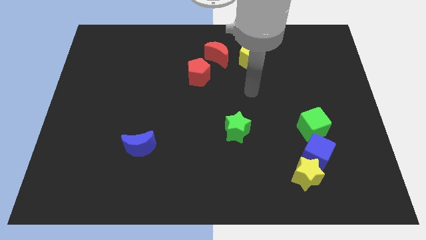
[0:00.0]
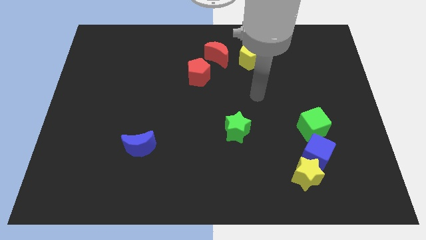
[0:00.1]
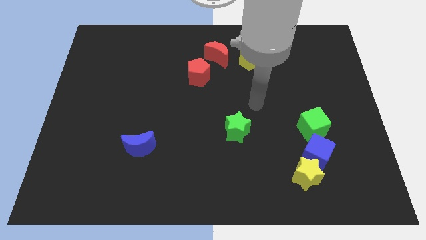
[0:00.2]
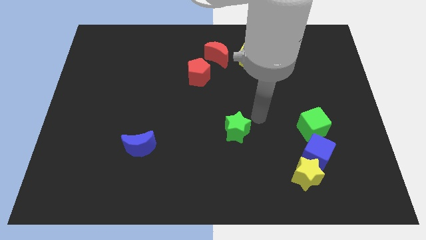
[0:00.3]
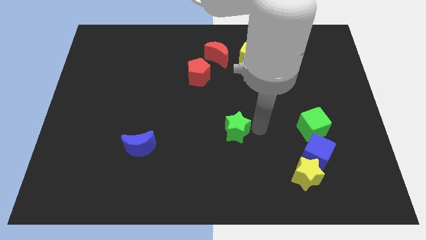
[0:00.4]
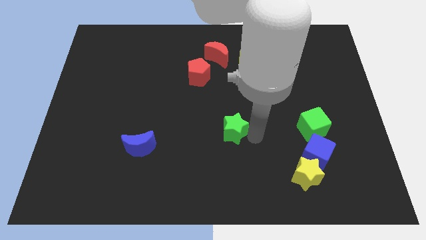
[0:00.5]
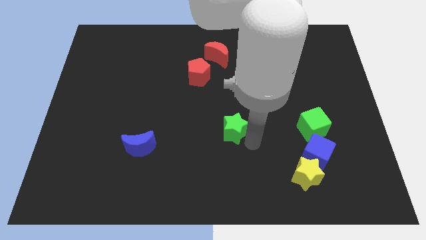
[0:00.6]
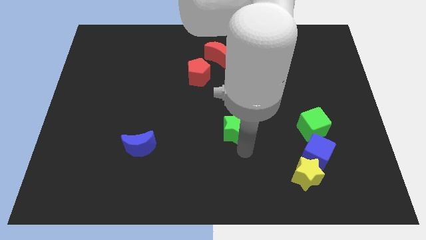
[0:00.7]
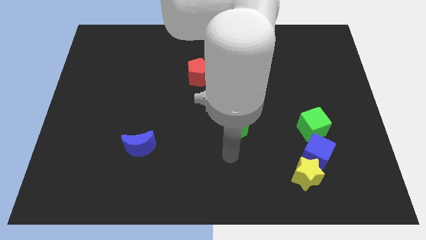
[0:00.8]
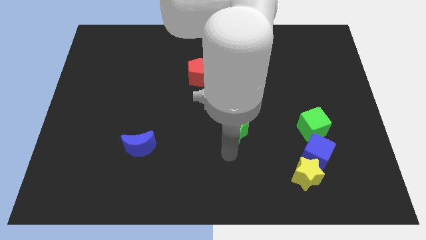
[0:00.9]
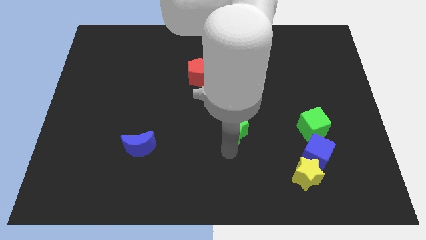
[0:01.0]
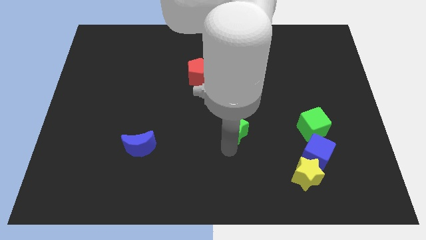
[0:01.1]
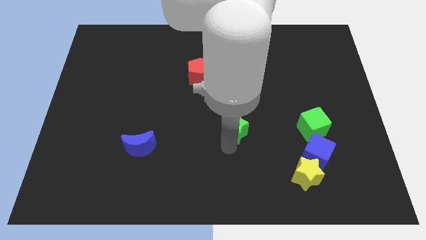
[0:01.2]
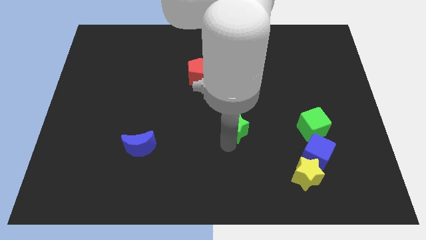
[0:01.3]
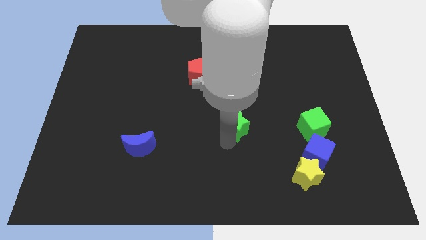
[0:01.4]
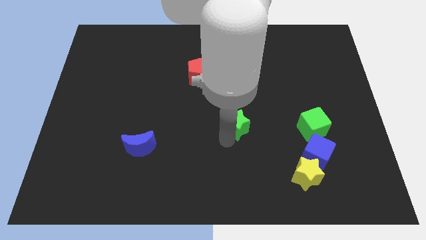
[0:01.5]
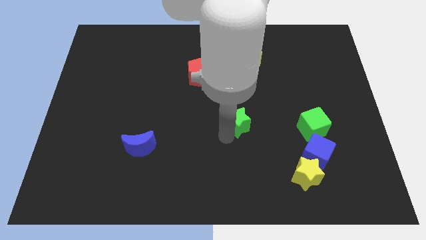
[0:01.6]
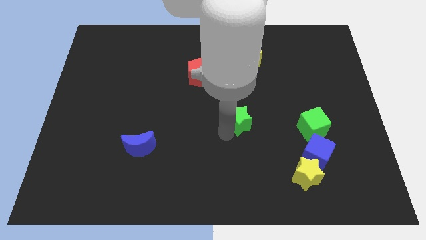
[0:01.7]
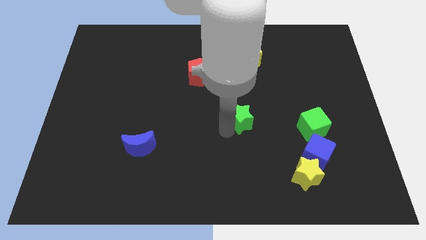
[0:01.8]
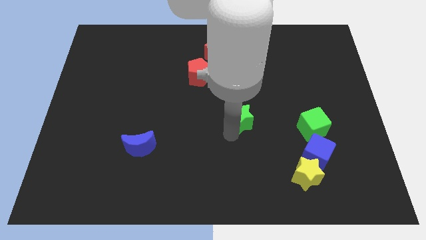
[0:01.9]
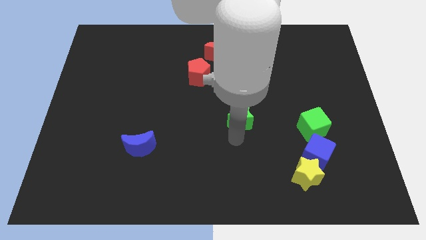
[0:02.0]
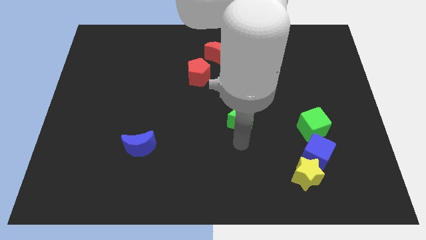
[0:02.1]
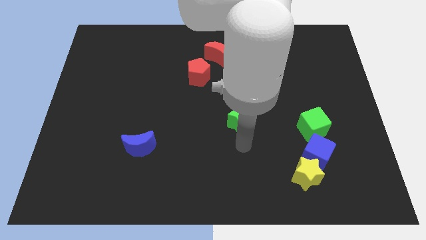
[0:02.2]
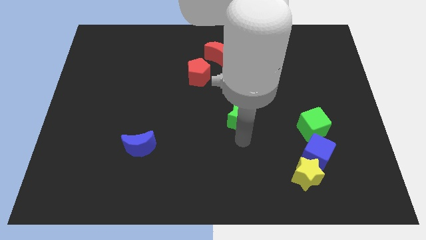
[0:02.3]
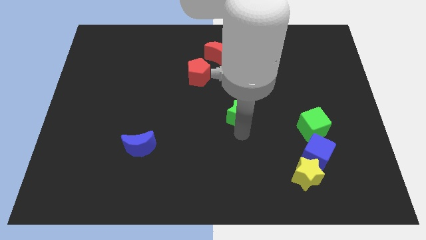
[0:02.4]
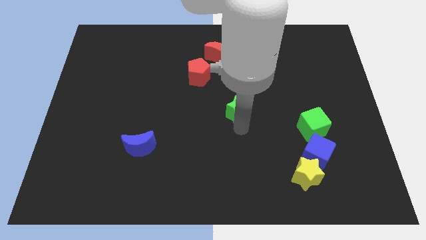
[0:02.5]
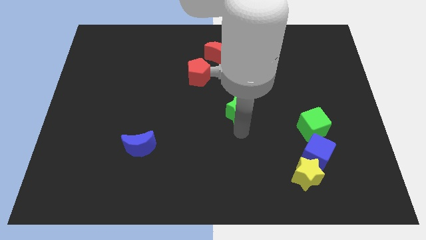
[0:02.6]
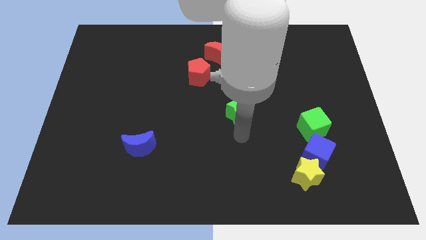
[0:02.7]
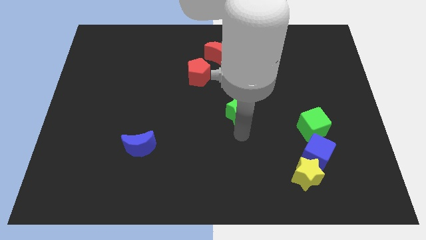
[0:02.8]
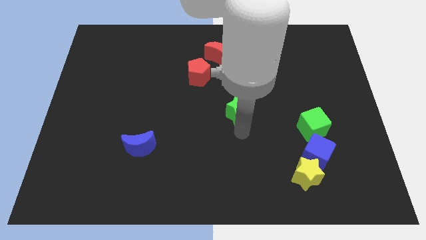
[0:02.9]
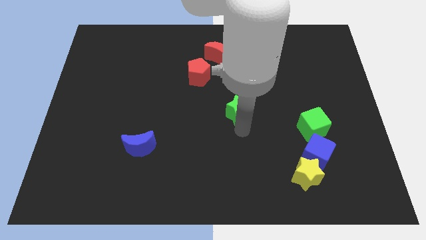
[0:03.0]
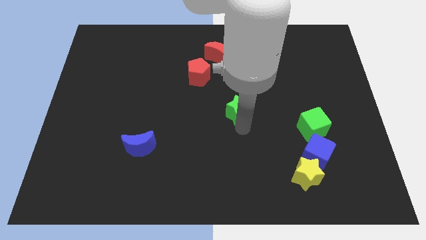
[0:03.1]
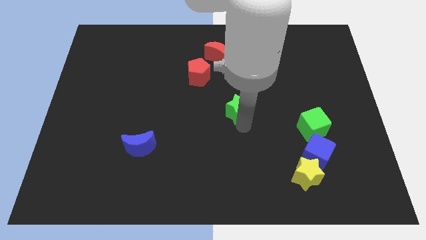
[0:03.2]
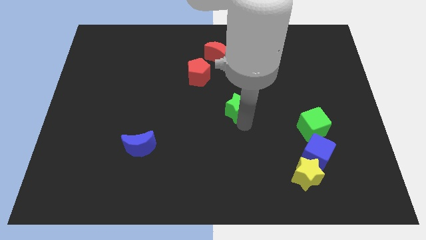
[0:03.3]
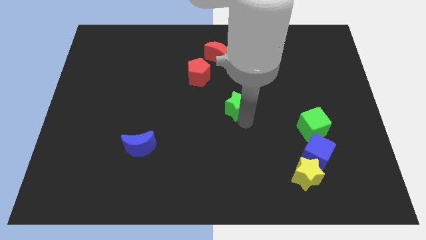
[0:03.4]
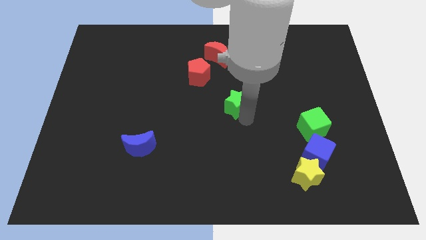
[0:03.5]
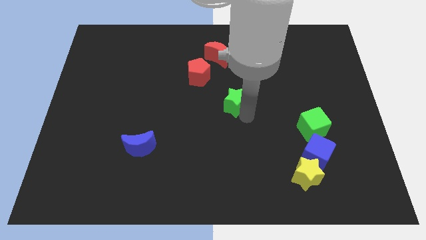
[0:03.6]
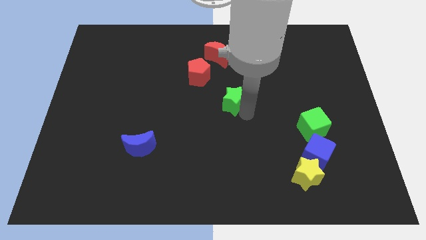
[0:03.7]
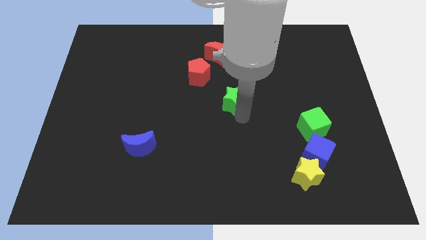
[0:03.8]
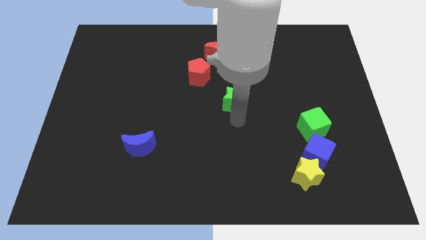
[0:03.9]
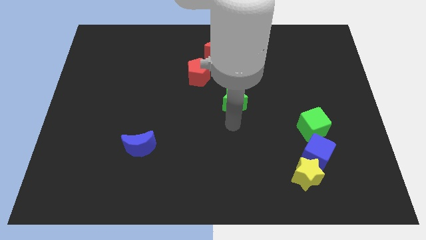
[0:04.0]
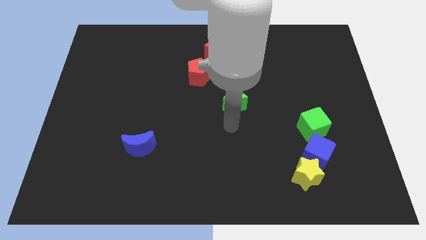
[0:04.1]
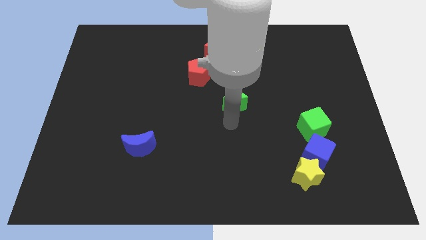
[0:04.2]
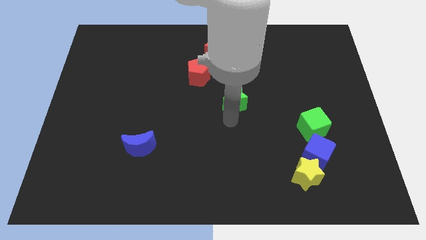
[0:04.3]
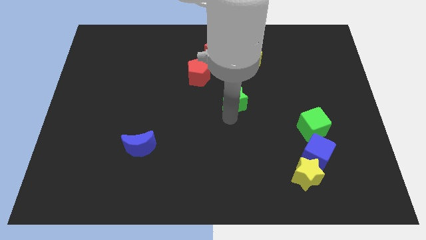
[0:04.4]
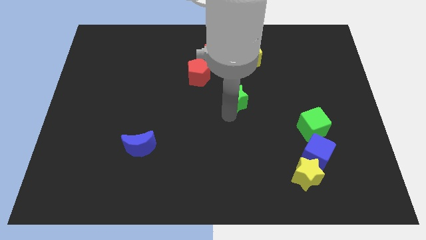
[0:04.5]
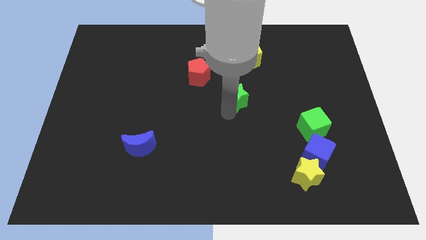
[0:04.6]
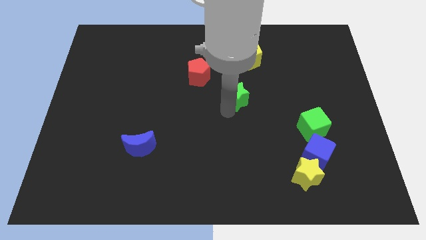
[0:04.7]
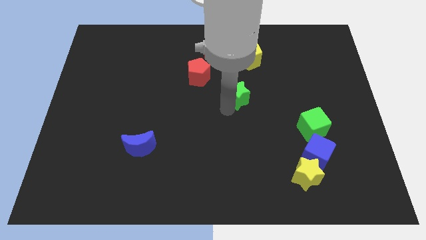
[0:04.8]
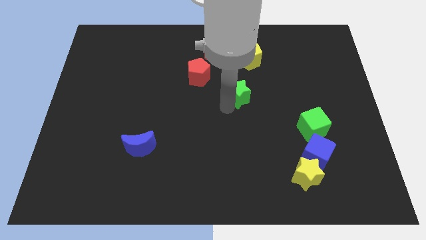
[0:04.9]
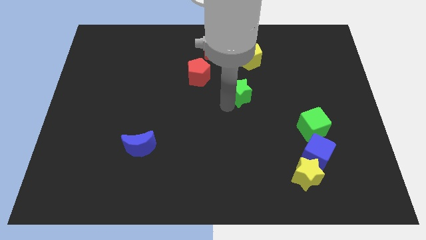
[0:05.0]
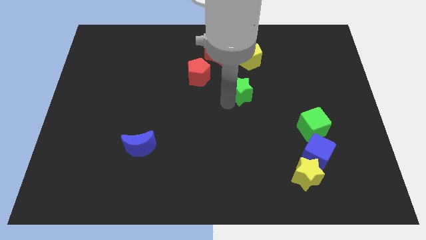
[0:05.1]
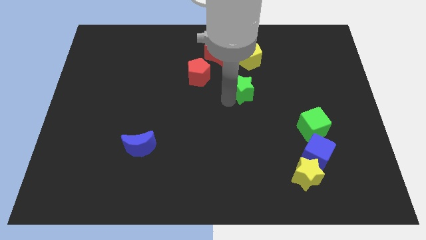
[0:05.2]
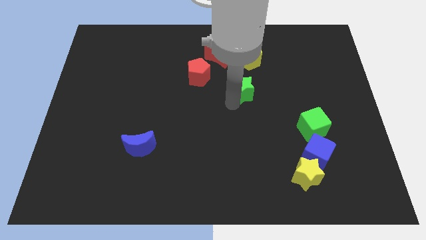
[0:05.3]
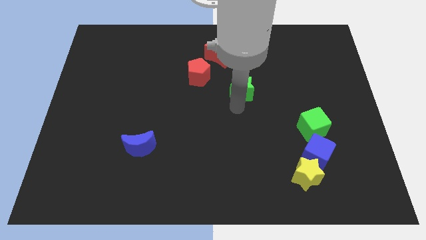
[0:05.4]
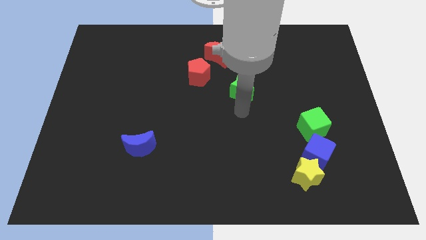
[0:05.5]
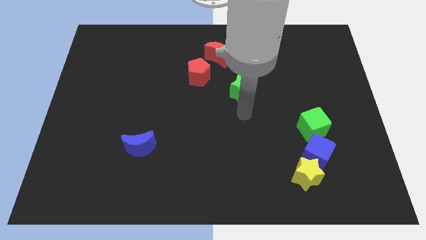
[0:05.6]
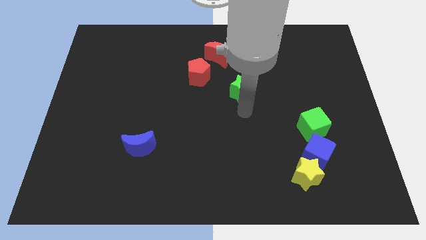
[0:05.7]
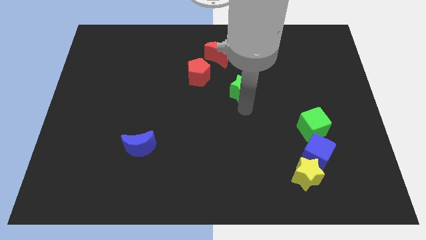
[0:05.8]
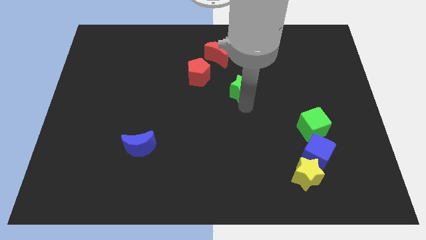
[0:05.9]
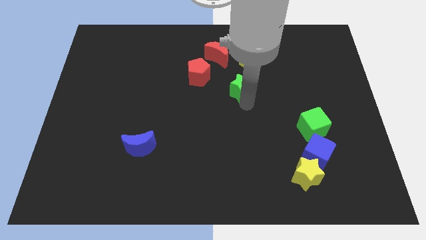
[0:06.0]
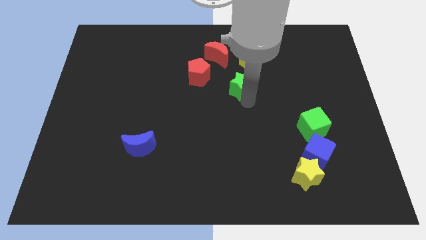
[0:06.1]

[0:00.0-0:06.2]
slide the green star to the right of the red pentagon

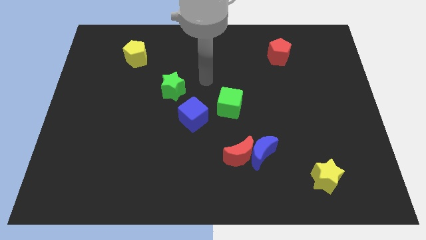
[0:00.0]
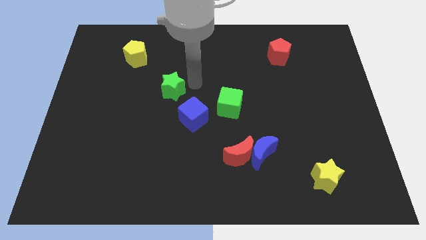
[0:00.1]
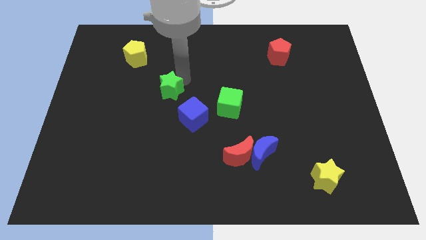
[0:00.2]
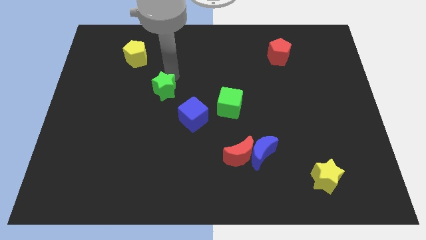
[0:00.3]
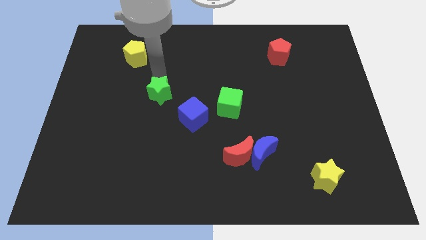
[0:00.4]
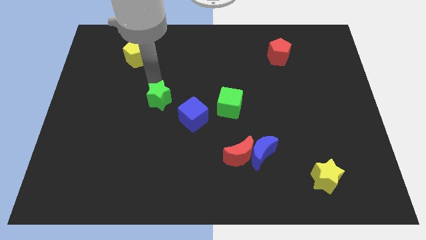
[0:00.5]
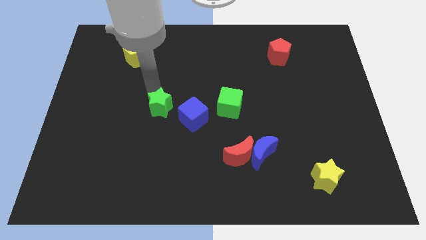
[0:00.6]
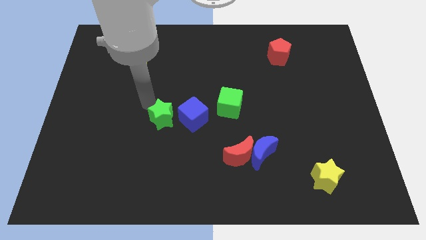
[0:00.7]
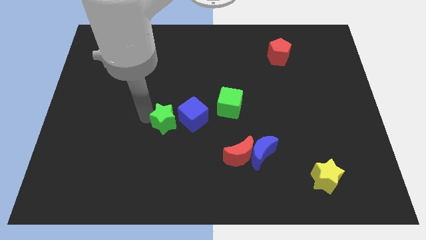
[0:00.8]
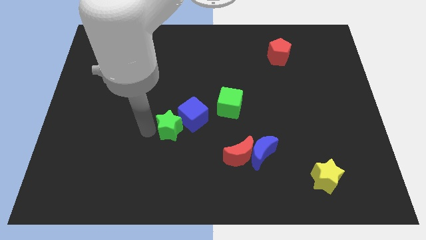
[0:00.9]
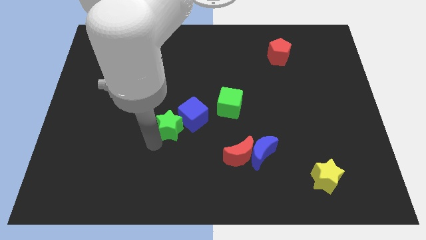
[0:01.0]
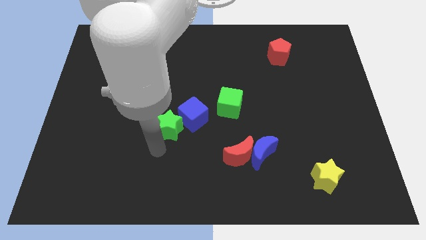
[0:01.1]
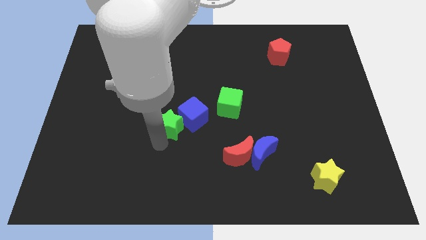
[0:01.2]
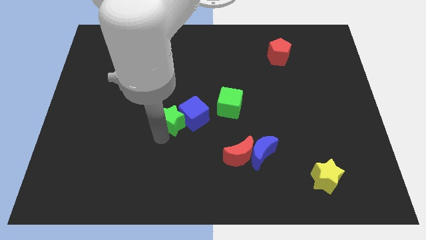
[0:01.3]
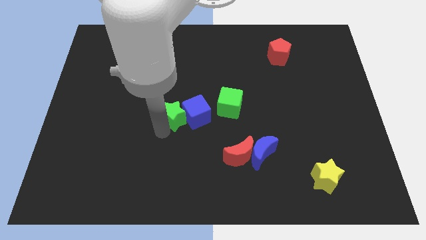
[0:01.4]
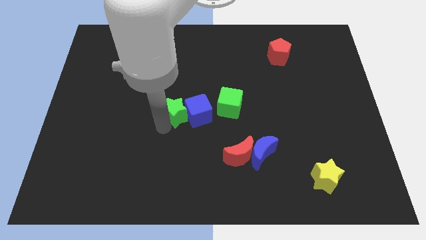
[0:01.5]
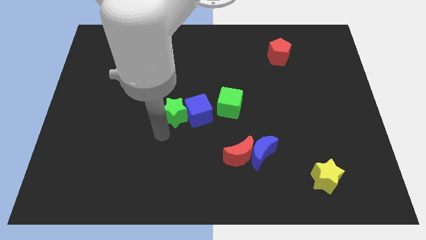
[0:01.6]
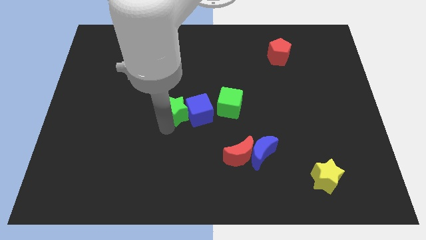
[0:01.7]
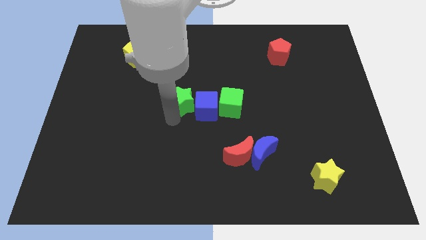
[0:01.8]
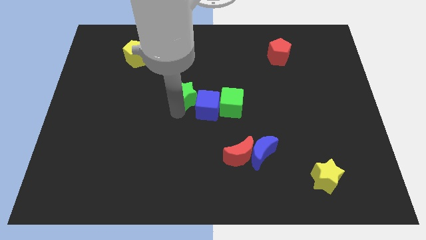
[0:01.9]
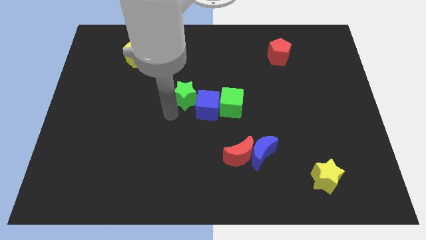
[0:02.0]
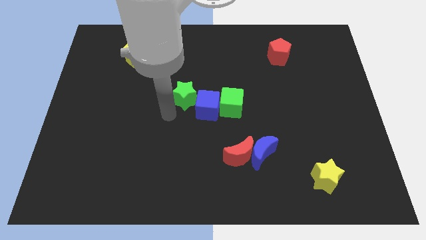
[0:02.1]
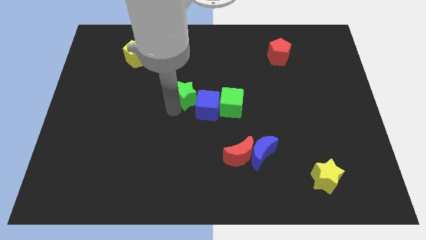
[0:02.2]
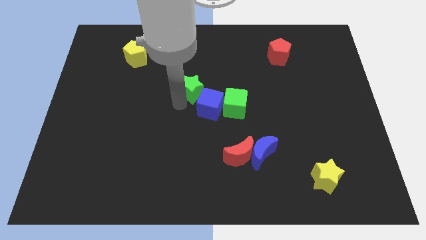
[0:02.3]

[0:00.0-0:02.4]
push the green star to the top side of the blue cube
